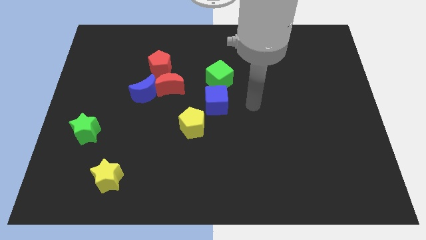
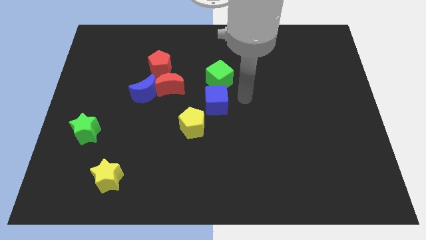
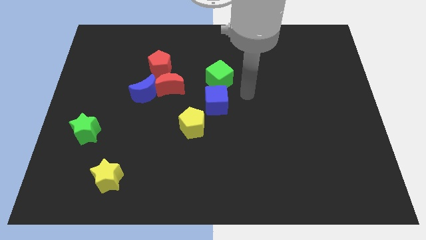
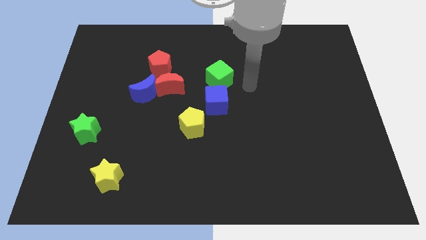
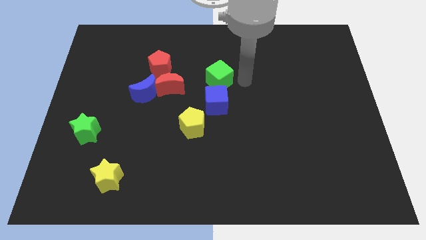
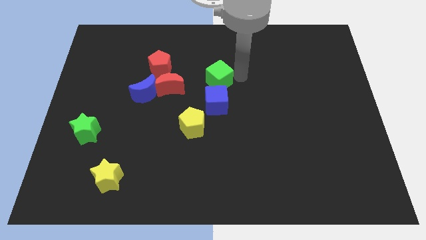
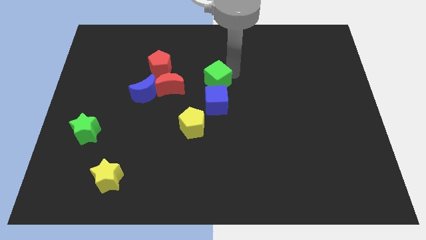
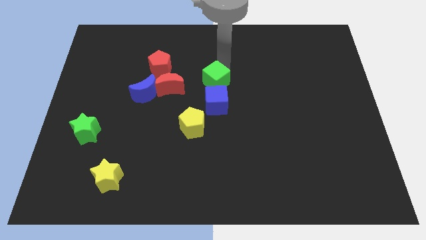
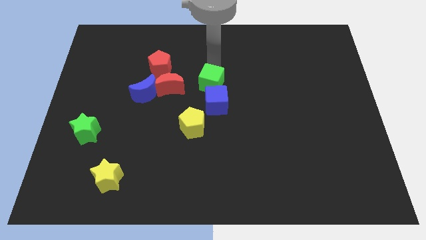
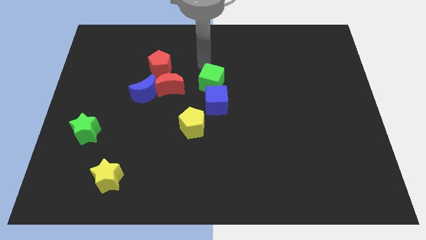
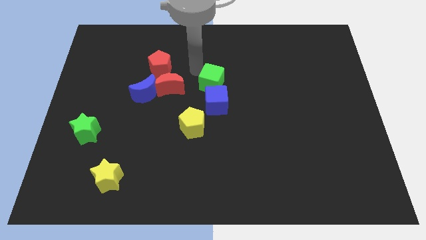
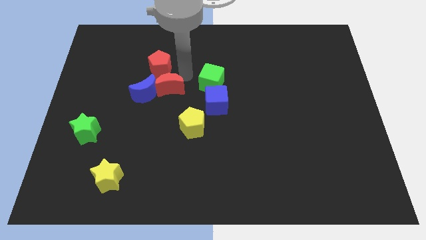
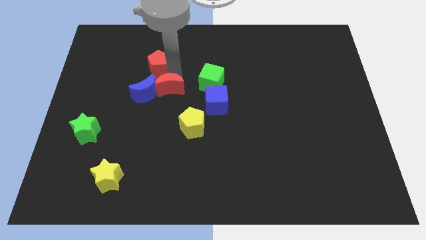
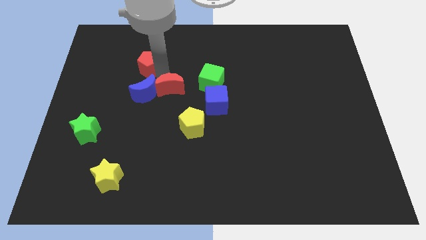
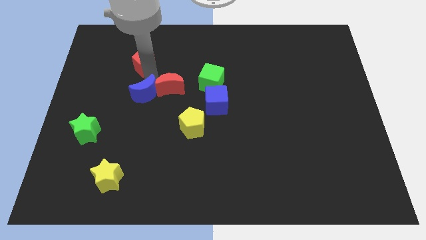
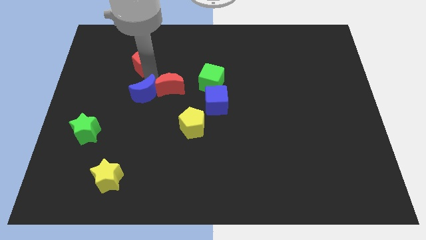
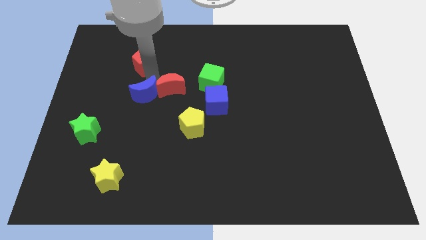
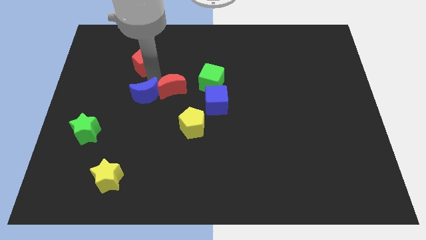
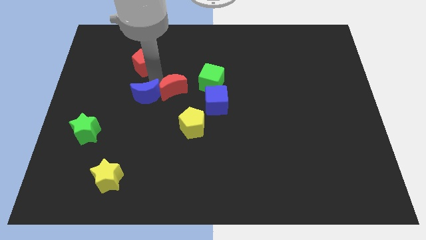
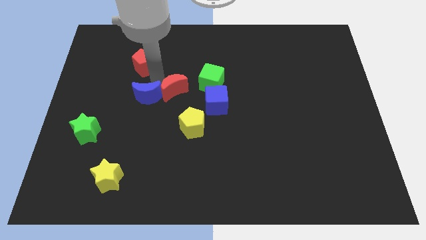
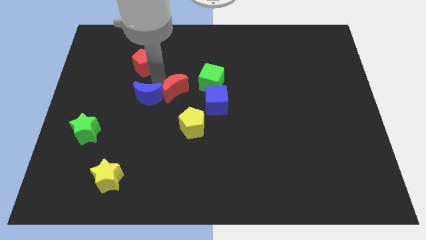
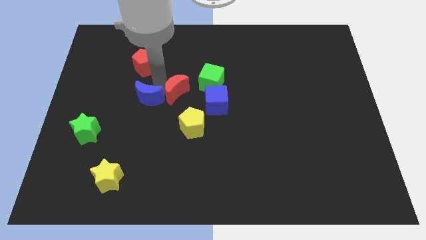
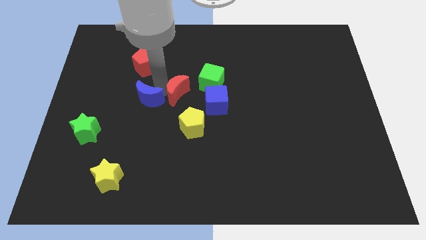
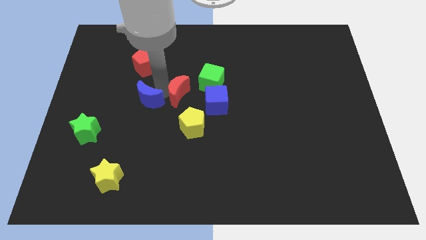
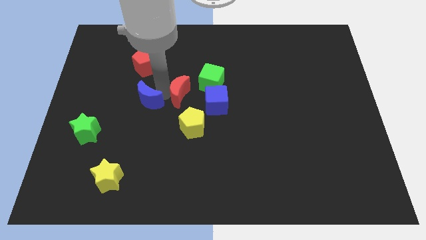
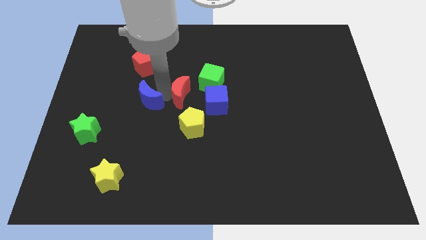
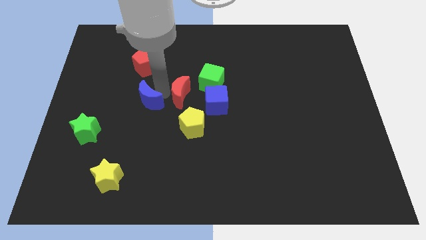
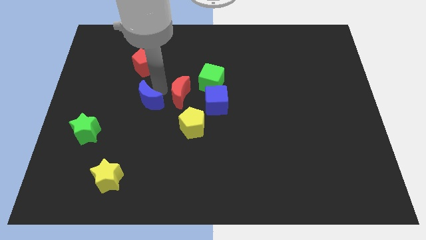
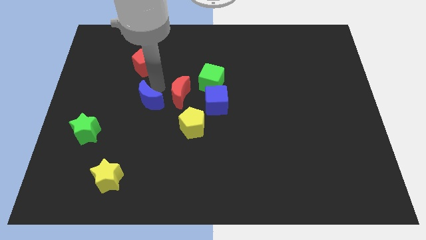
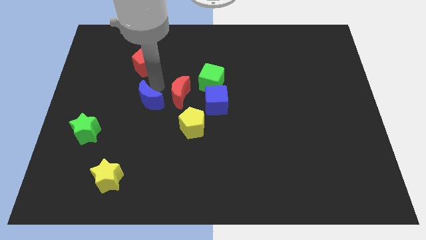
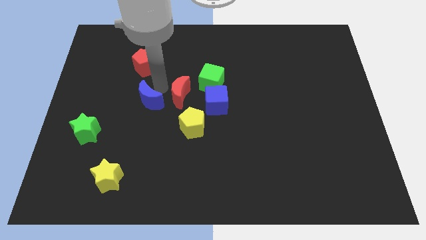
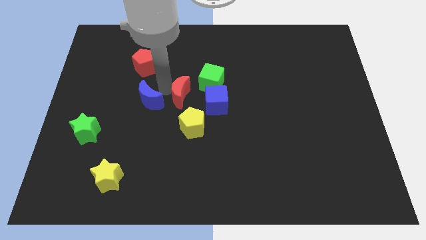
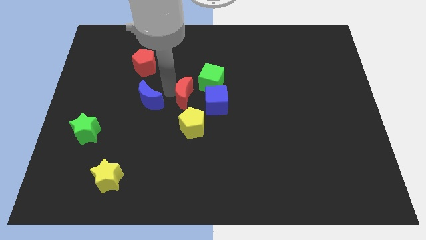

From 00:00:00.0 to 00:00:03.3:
pull the red moon apart from the blue moon and red pentagon

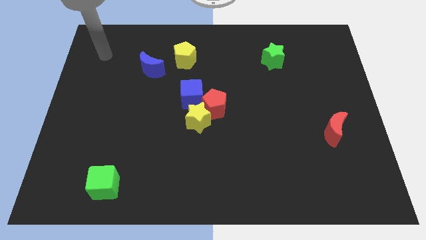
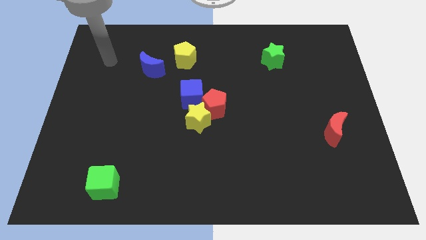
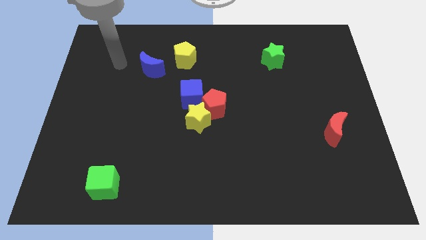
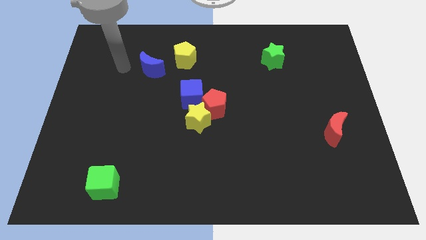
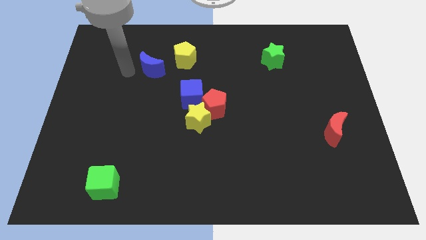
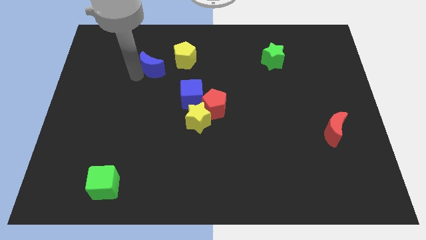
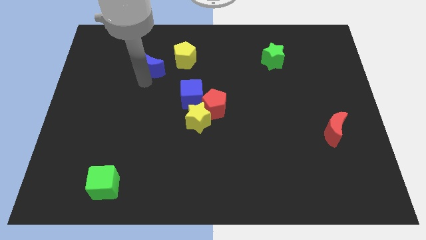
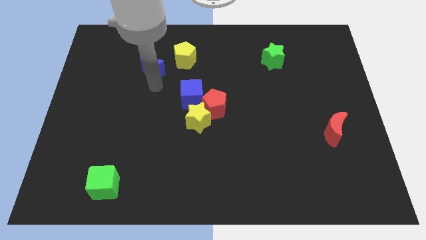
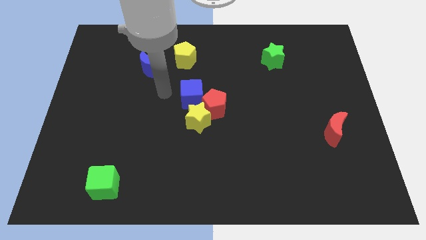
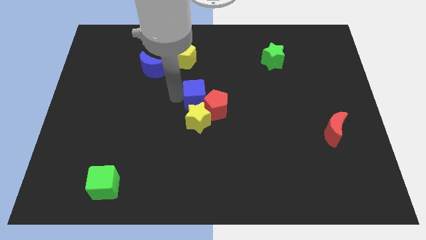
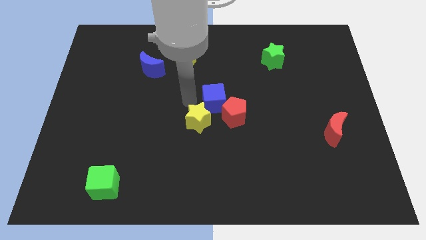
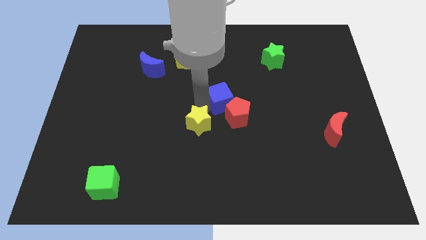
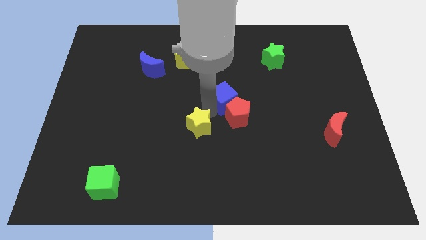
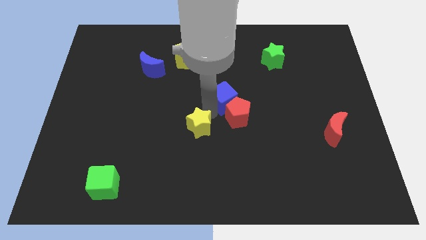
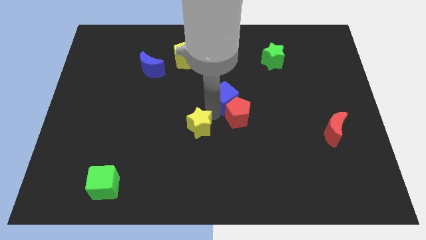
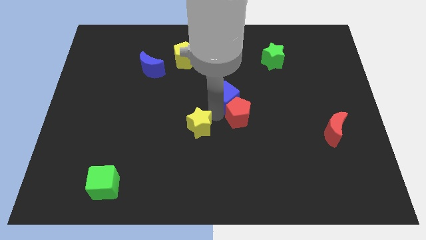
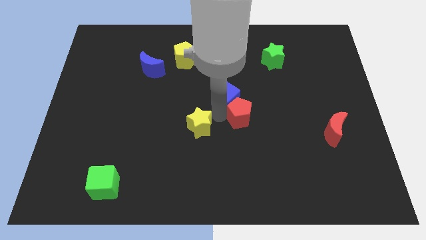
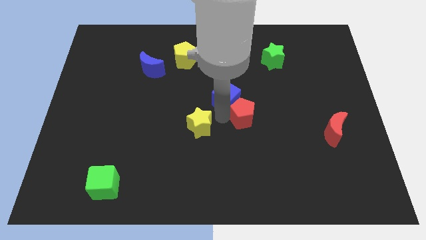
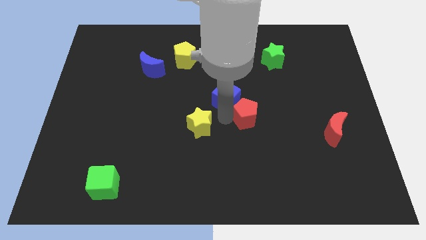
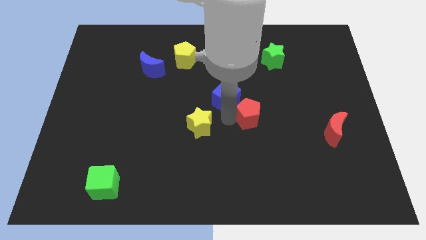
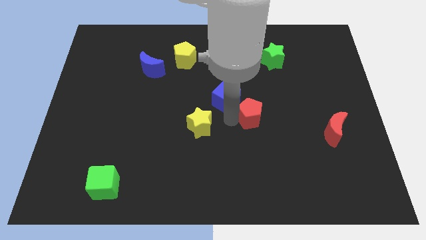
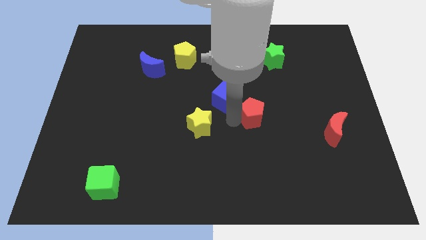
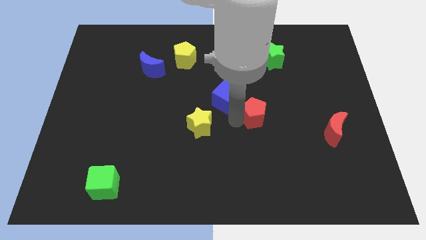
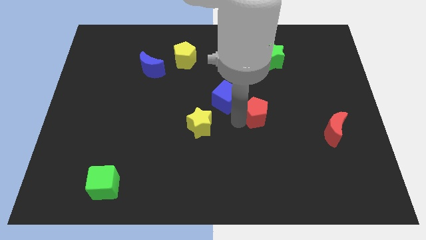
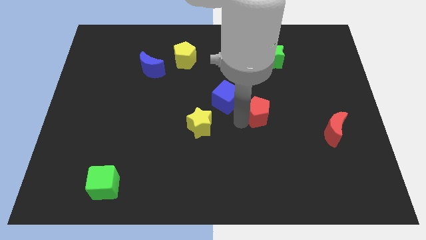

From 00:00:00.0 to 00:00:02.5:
separate the red pentagon from the yellow star and blue cube

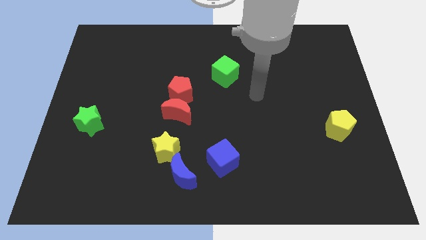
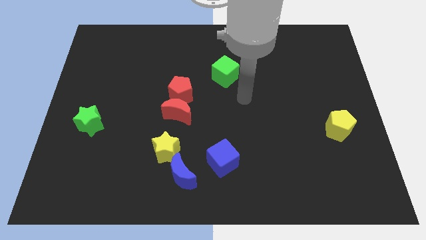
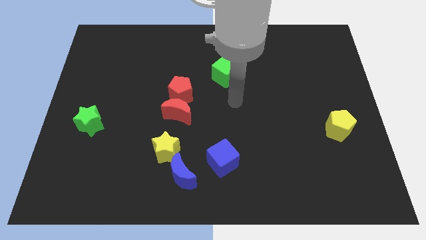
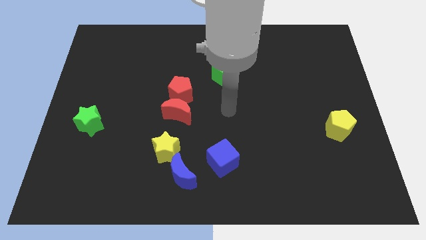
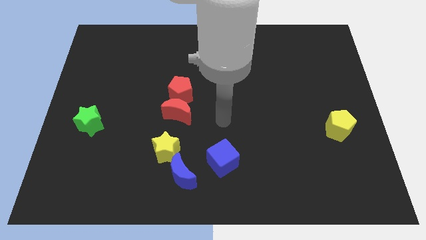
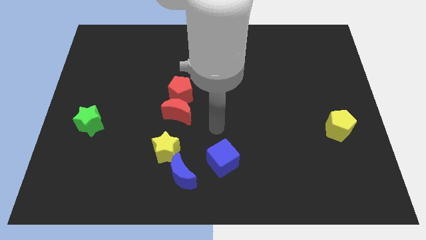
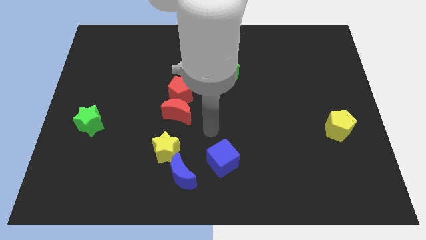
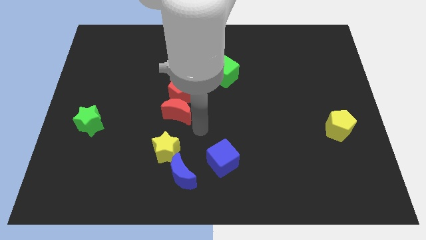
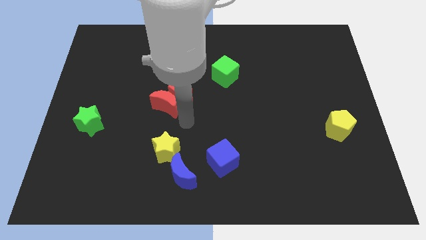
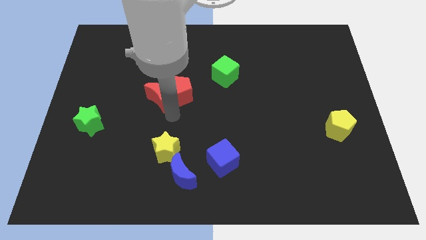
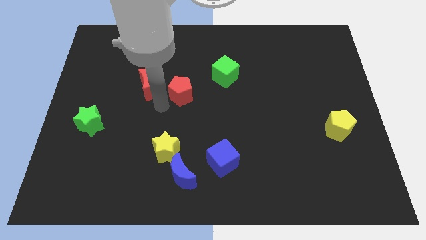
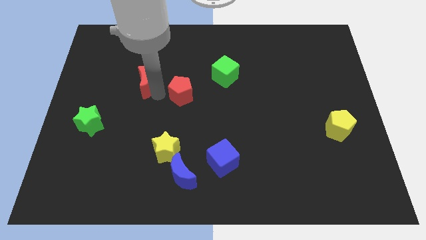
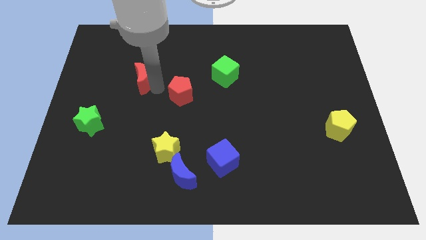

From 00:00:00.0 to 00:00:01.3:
move the red pentagon away from the red moon

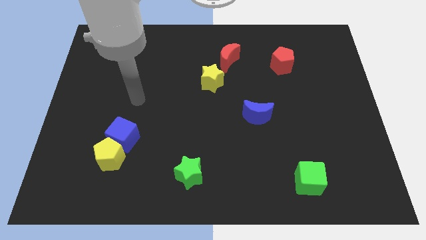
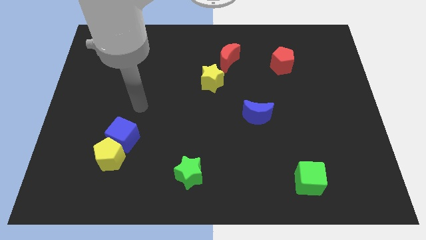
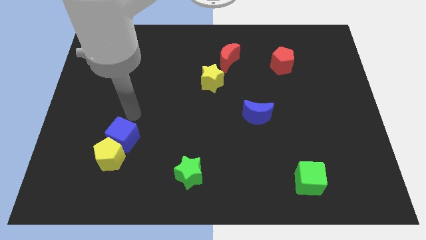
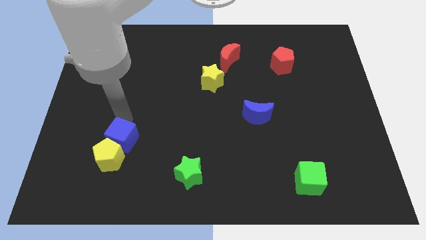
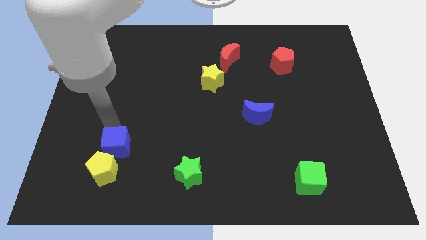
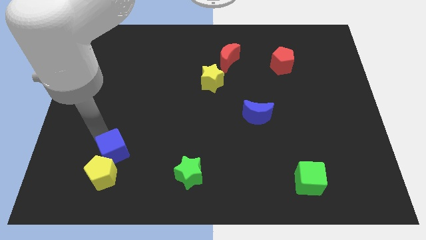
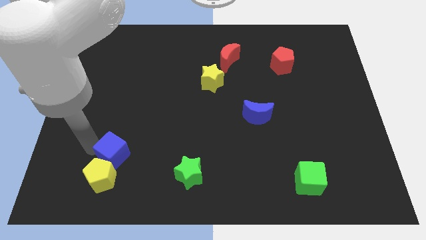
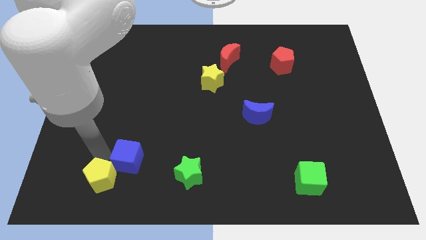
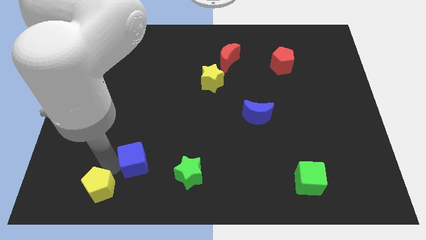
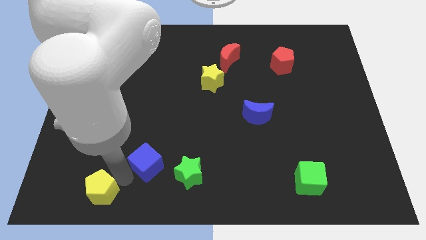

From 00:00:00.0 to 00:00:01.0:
move the blue cube away from the yellow pentagon

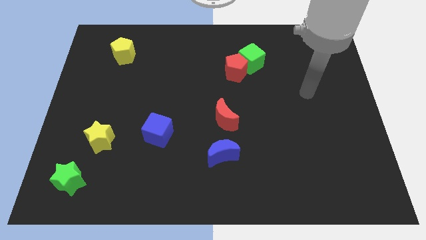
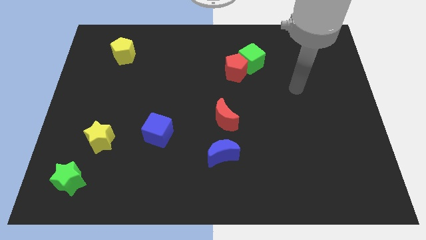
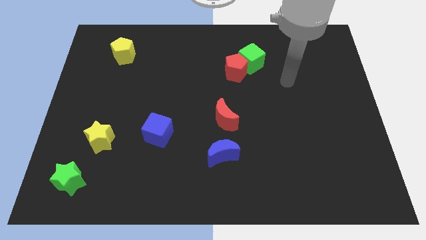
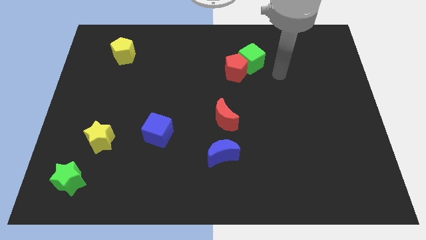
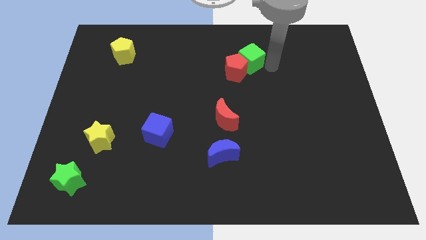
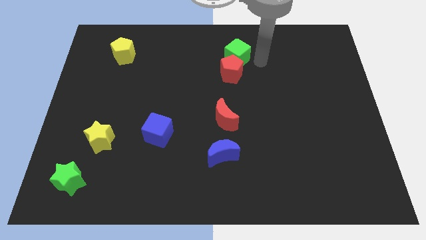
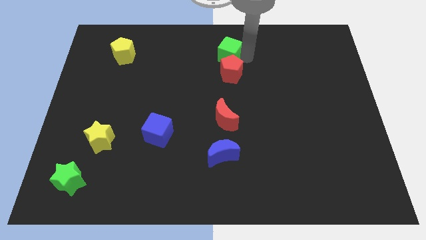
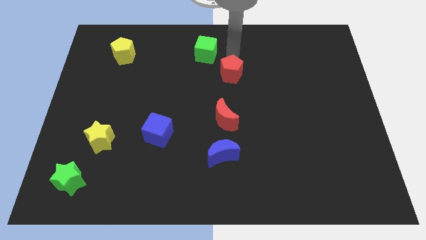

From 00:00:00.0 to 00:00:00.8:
pull the red pentagon apart from the green cube

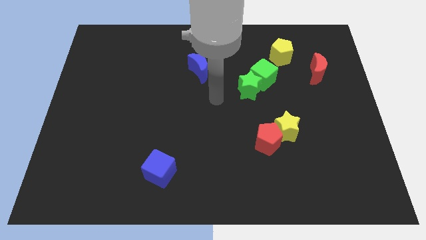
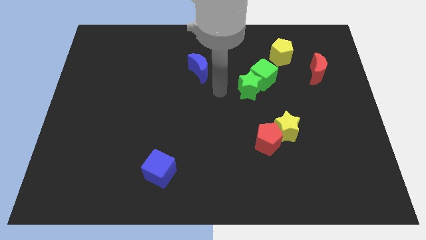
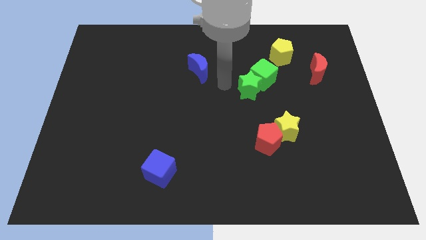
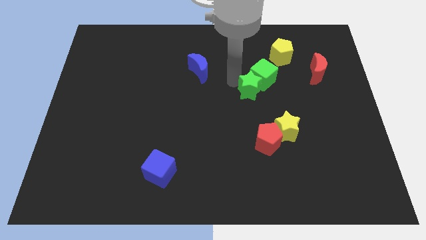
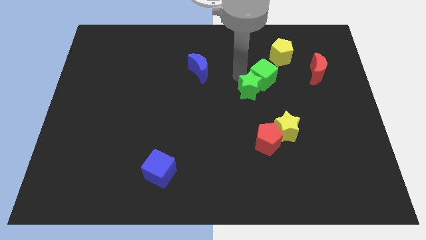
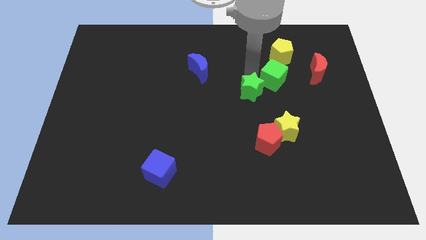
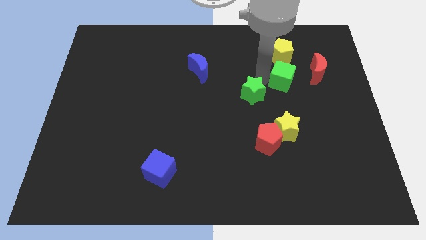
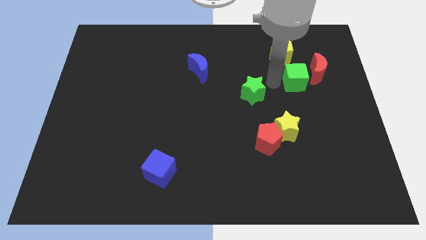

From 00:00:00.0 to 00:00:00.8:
pull the green star apart from the green cube
